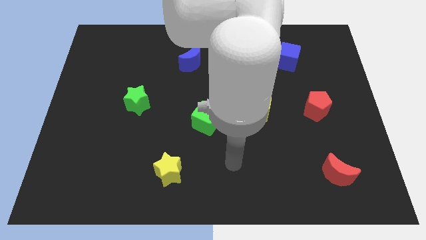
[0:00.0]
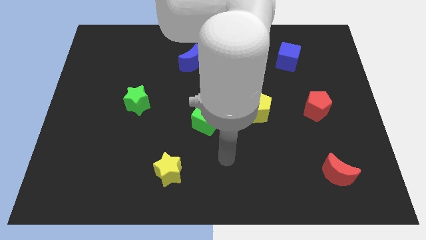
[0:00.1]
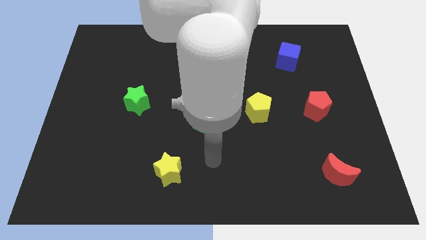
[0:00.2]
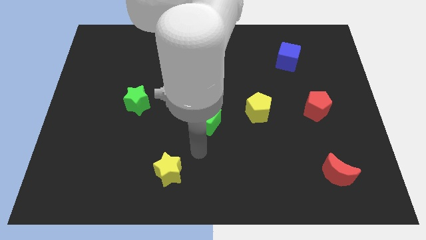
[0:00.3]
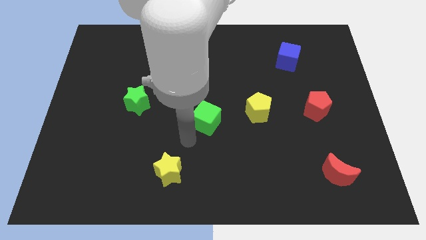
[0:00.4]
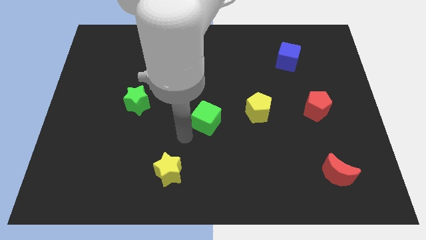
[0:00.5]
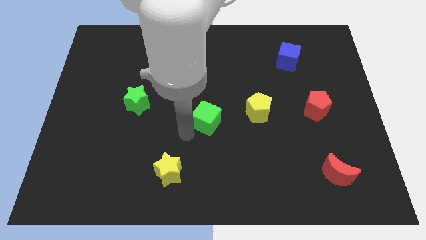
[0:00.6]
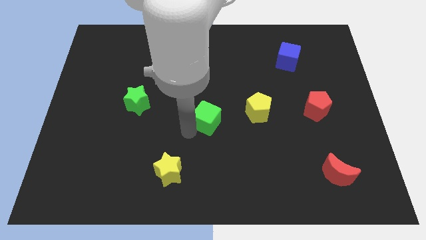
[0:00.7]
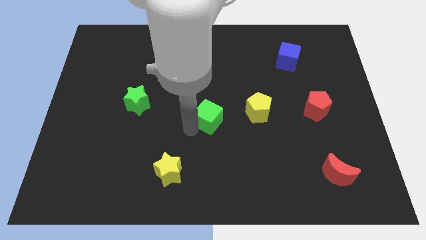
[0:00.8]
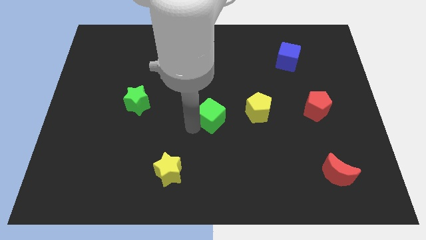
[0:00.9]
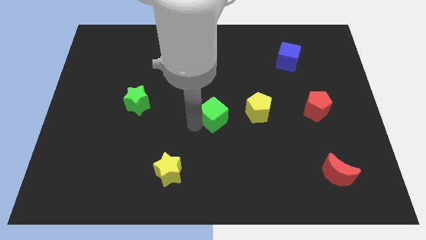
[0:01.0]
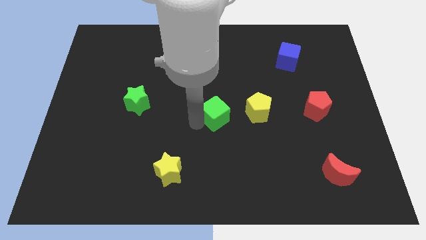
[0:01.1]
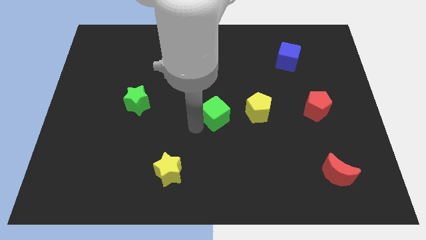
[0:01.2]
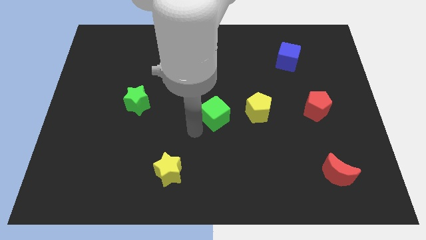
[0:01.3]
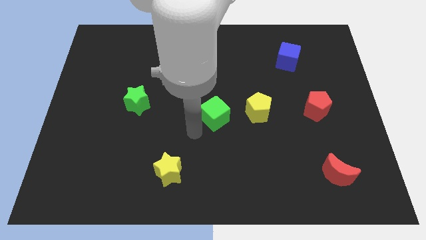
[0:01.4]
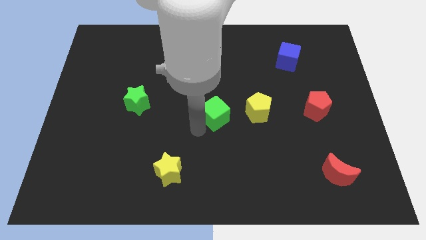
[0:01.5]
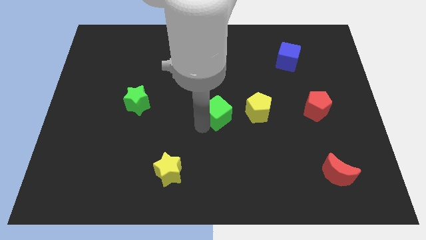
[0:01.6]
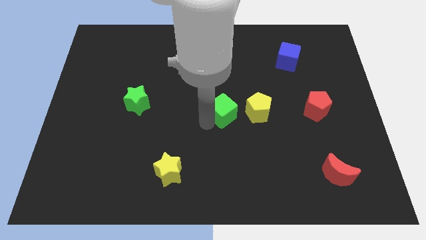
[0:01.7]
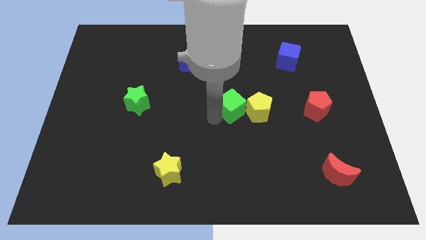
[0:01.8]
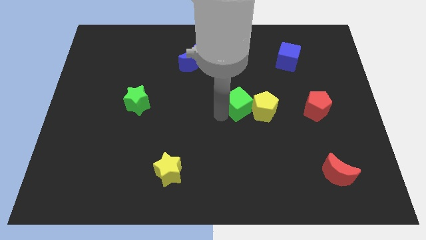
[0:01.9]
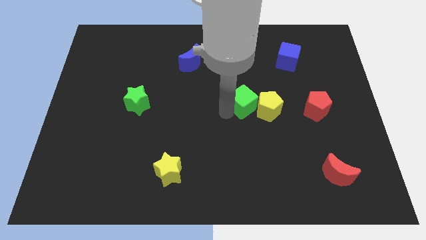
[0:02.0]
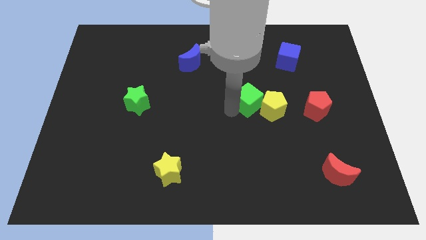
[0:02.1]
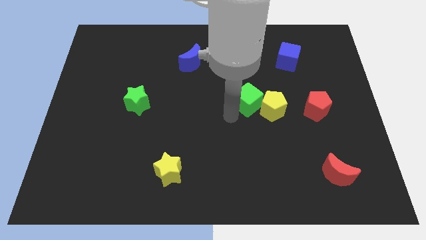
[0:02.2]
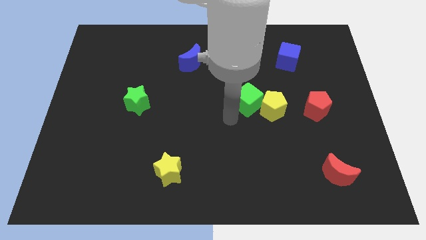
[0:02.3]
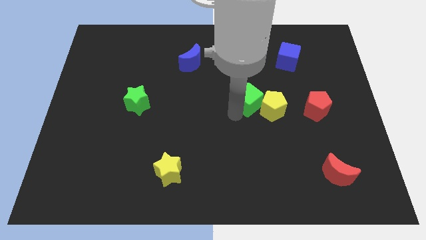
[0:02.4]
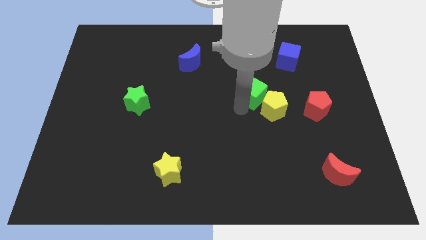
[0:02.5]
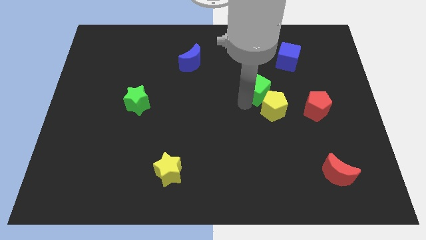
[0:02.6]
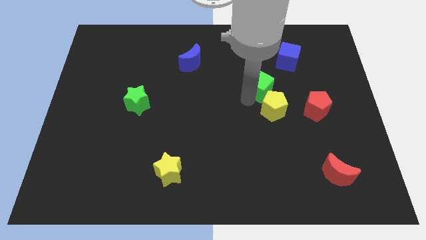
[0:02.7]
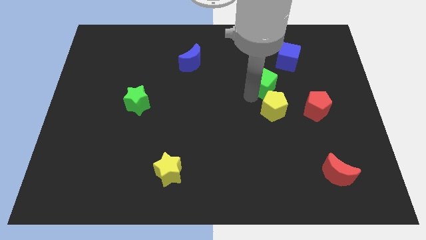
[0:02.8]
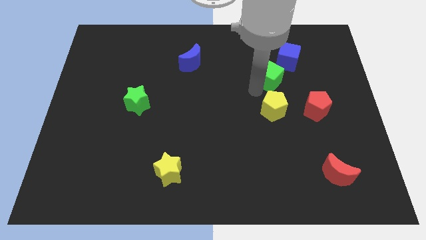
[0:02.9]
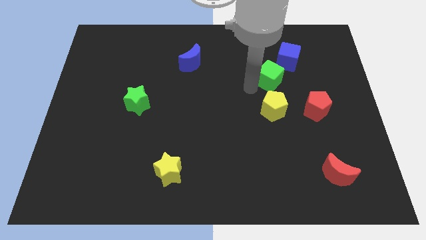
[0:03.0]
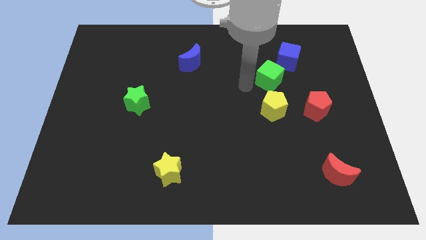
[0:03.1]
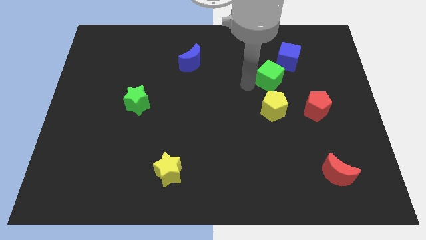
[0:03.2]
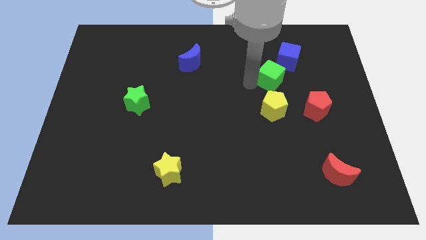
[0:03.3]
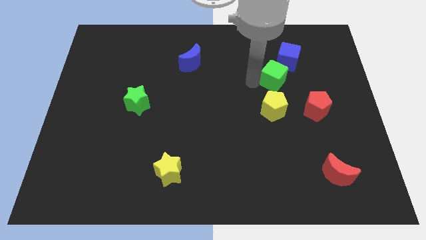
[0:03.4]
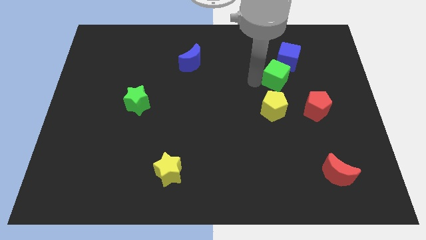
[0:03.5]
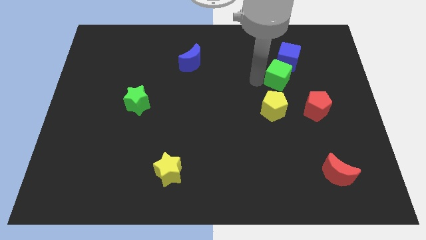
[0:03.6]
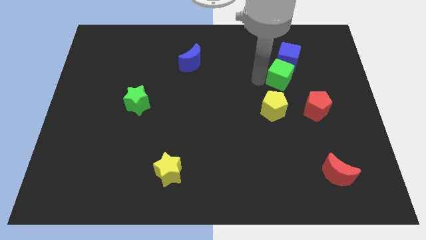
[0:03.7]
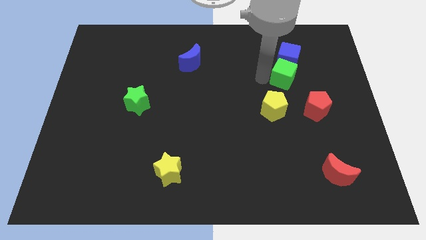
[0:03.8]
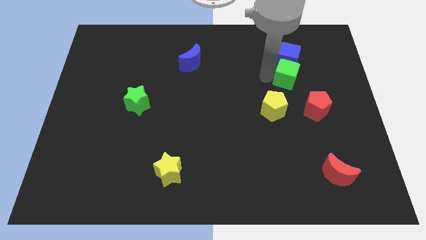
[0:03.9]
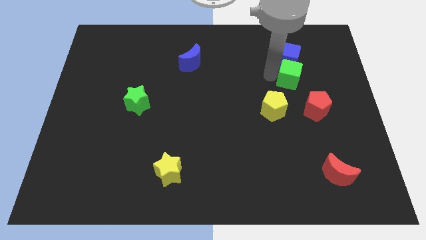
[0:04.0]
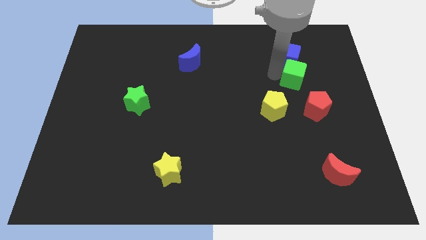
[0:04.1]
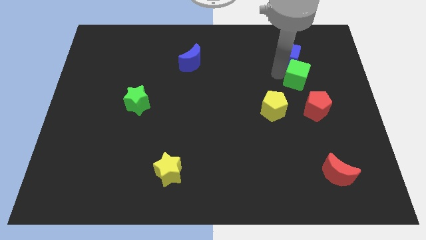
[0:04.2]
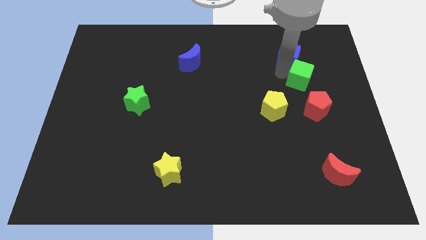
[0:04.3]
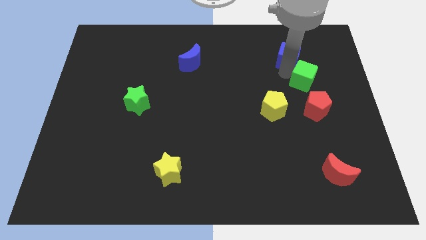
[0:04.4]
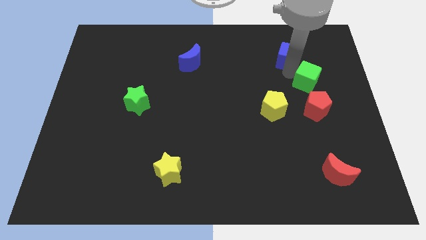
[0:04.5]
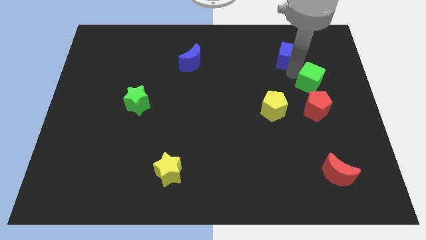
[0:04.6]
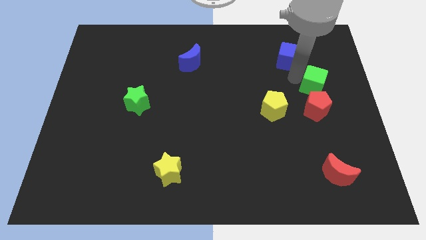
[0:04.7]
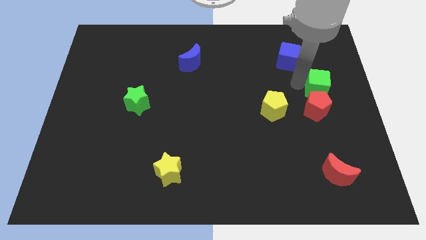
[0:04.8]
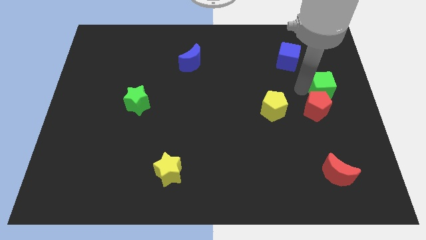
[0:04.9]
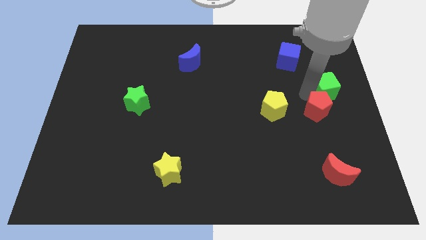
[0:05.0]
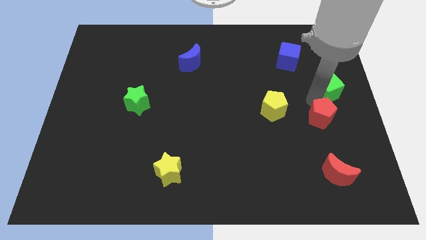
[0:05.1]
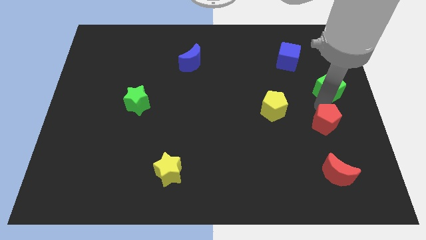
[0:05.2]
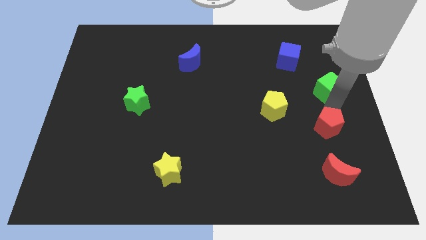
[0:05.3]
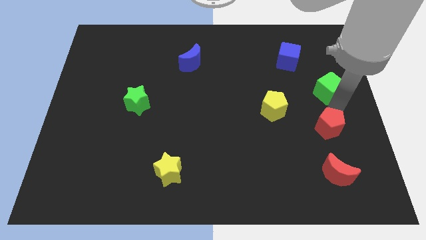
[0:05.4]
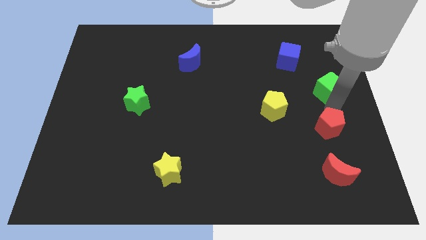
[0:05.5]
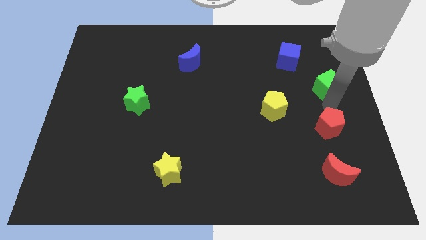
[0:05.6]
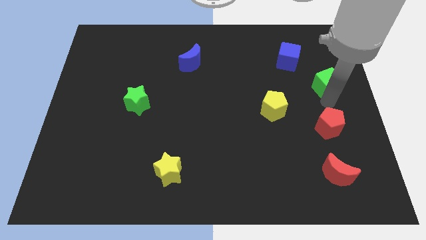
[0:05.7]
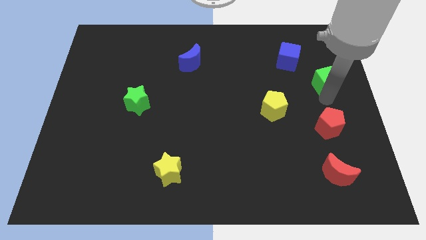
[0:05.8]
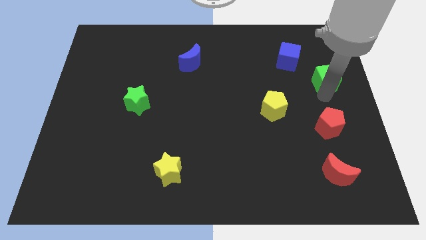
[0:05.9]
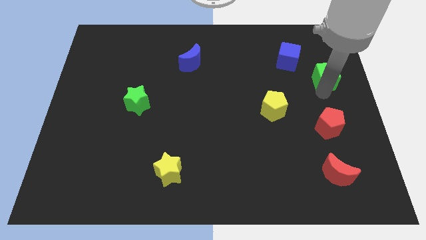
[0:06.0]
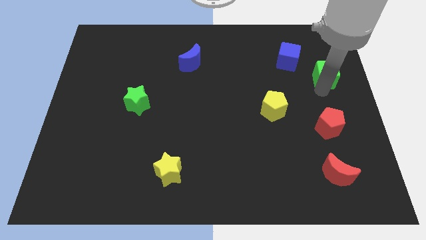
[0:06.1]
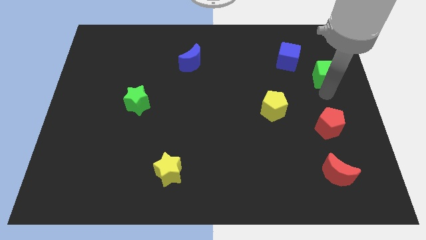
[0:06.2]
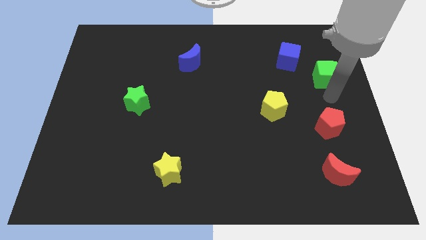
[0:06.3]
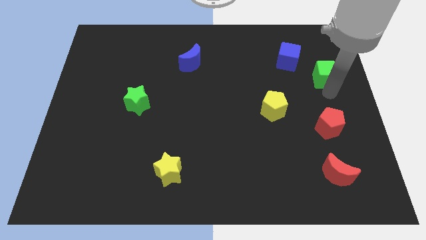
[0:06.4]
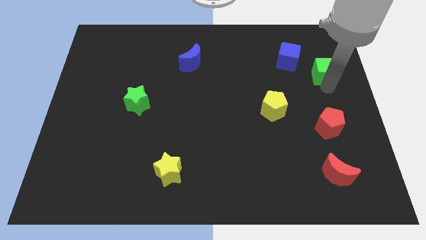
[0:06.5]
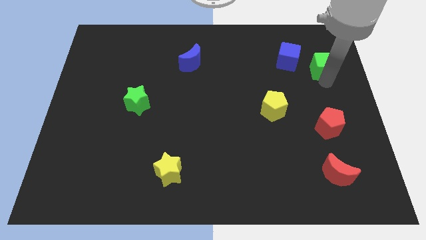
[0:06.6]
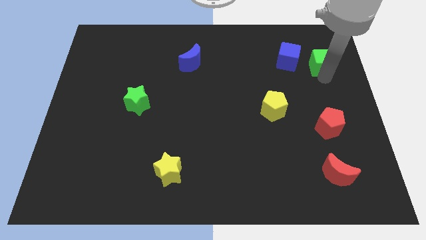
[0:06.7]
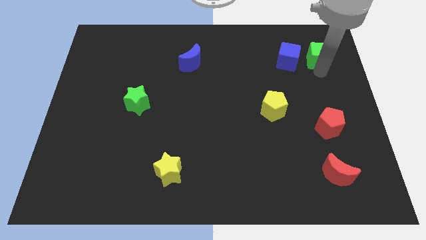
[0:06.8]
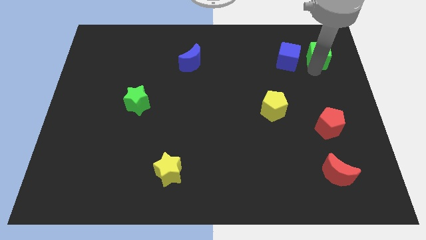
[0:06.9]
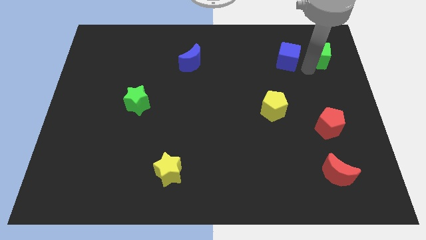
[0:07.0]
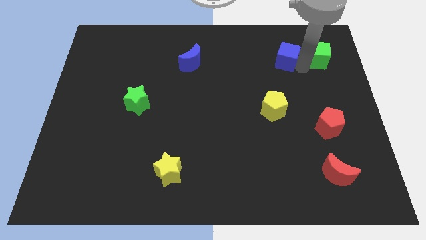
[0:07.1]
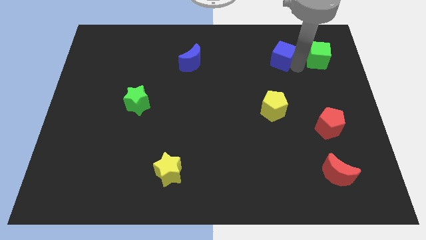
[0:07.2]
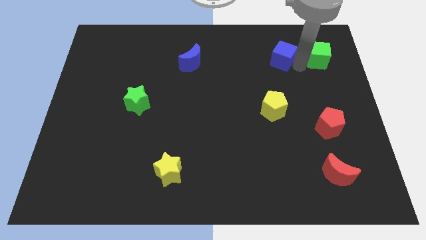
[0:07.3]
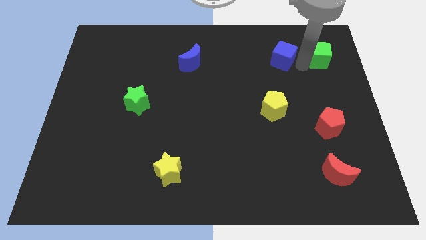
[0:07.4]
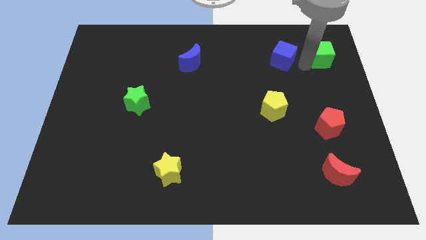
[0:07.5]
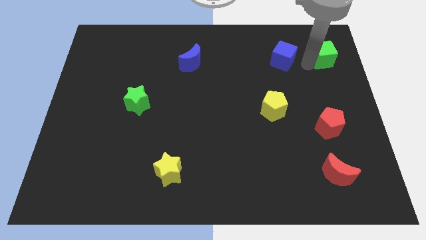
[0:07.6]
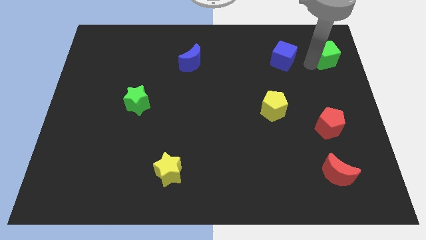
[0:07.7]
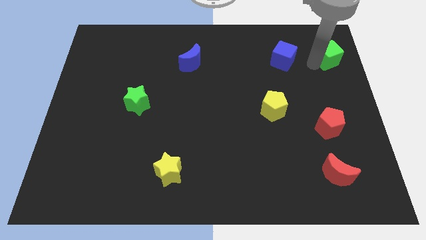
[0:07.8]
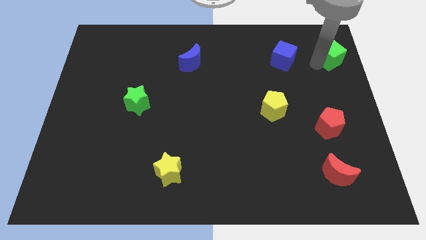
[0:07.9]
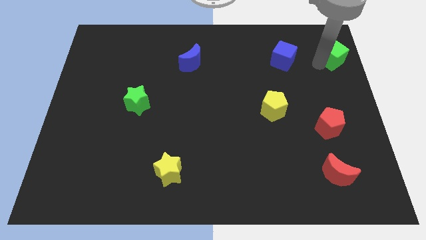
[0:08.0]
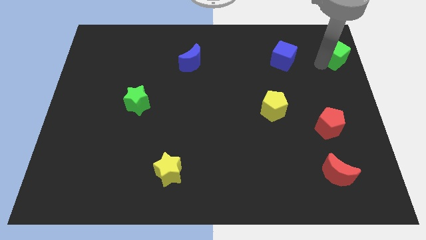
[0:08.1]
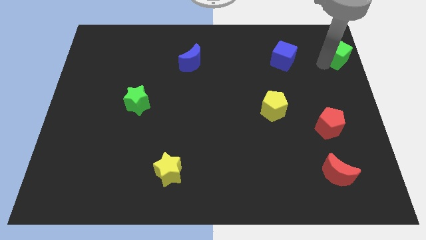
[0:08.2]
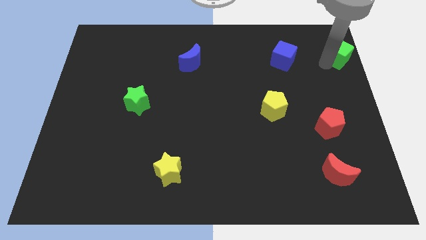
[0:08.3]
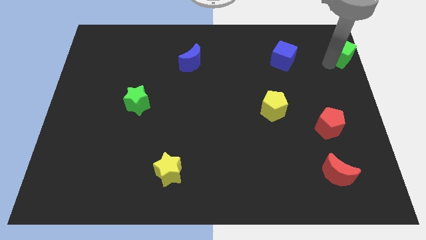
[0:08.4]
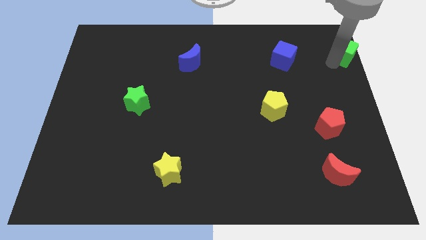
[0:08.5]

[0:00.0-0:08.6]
put the green cube to the upper right corner
